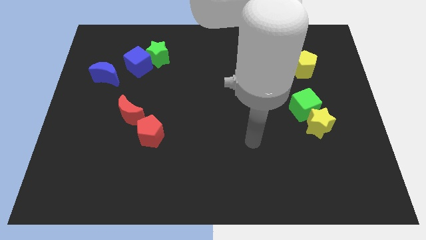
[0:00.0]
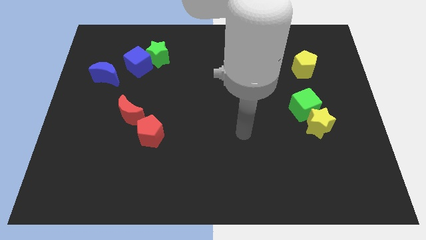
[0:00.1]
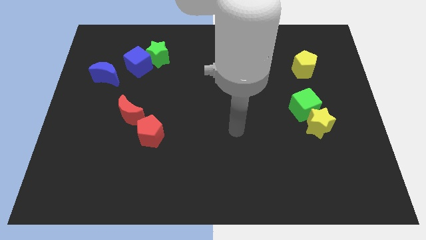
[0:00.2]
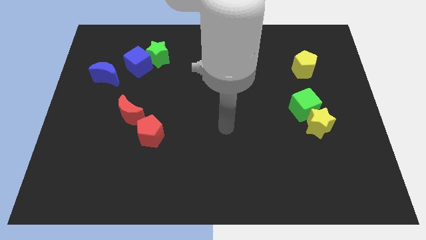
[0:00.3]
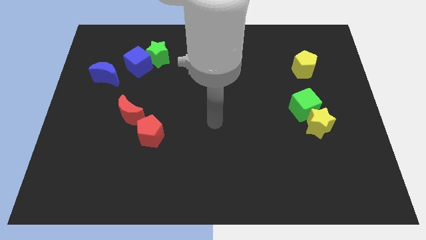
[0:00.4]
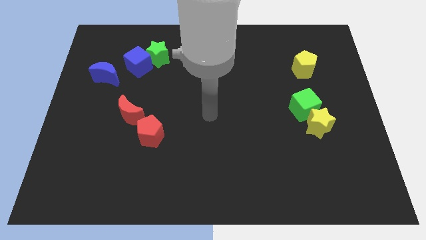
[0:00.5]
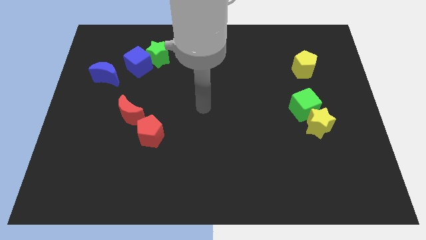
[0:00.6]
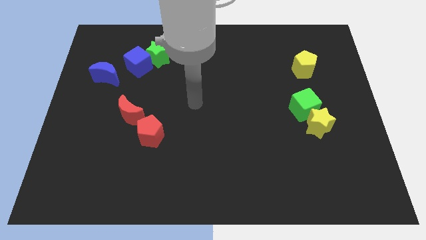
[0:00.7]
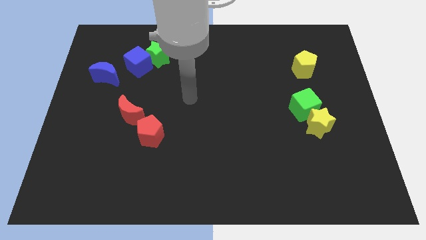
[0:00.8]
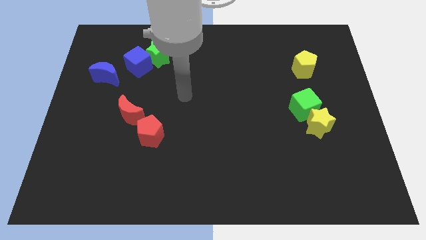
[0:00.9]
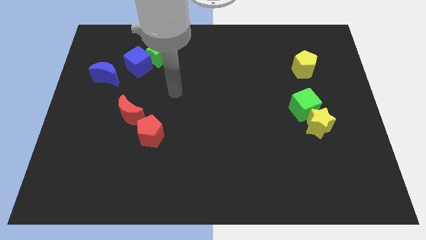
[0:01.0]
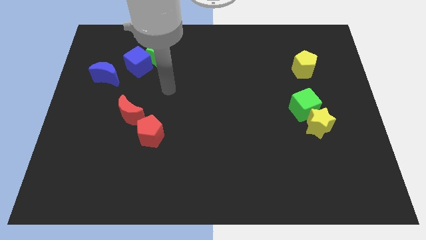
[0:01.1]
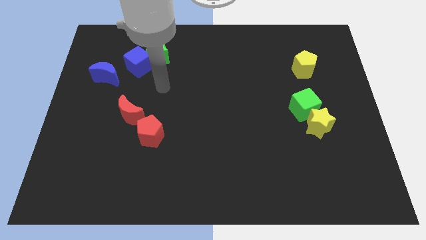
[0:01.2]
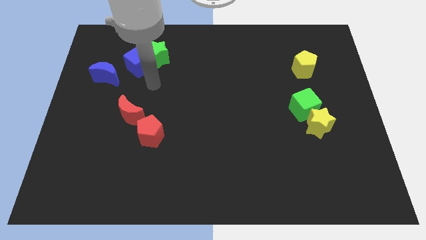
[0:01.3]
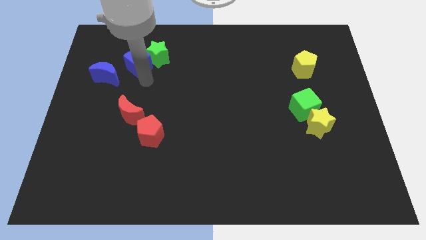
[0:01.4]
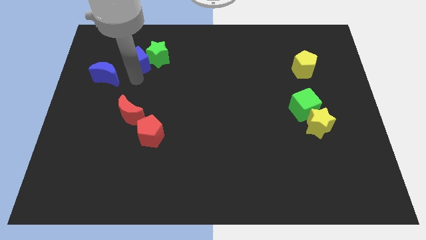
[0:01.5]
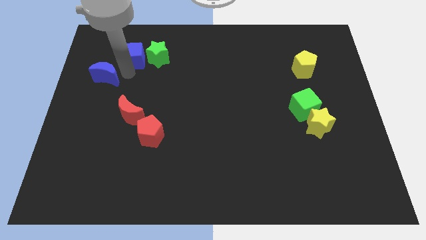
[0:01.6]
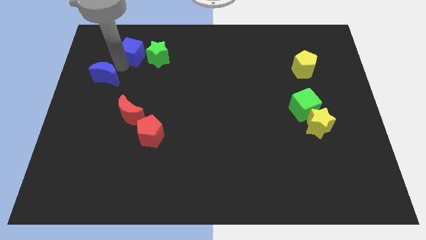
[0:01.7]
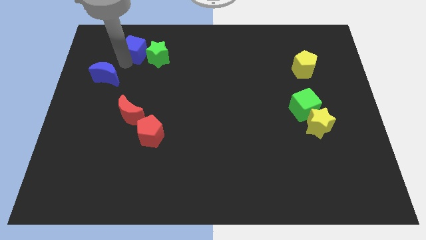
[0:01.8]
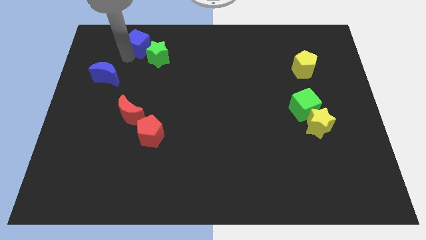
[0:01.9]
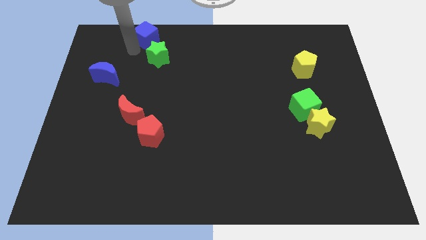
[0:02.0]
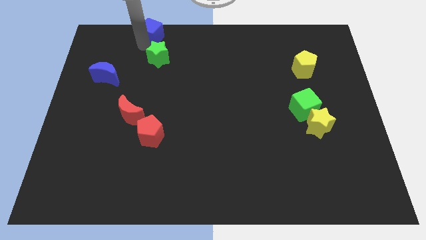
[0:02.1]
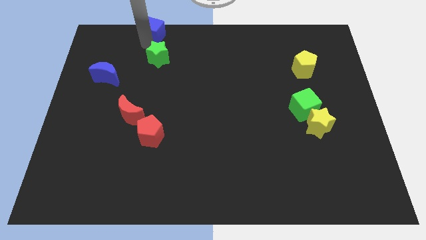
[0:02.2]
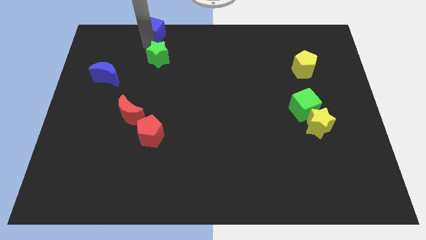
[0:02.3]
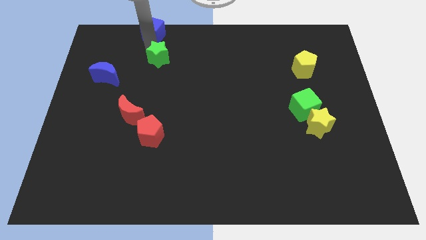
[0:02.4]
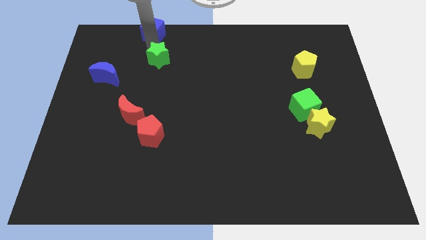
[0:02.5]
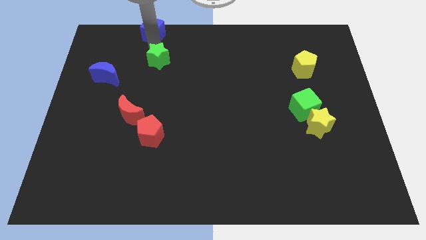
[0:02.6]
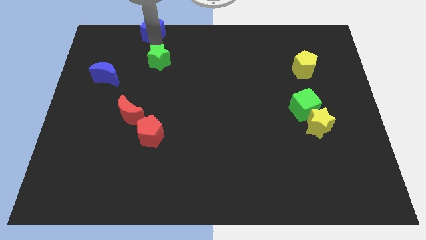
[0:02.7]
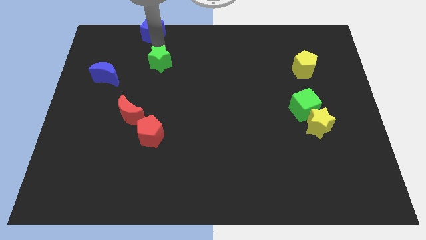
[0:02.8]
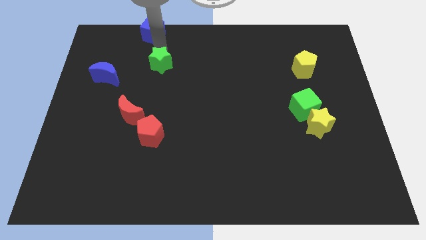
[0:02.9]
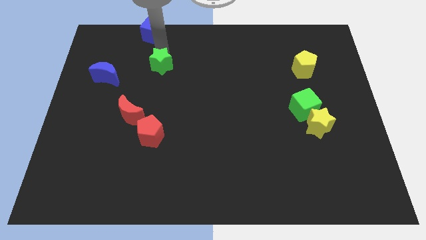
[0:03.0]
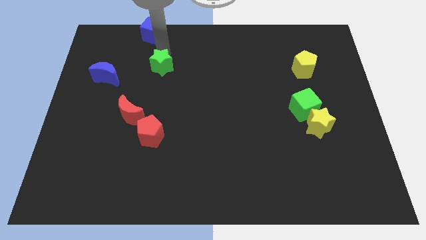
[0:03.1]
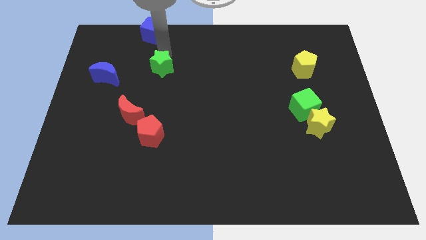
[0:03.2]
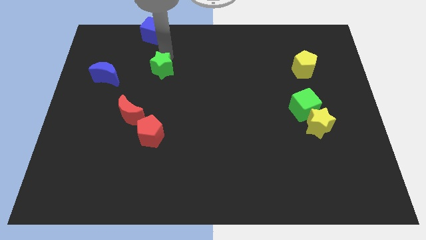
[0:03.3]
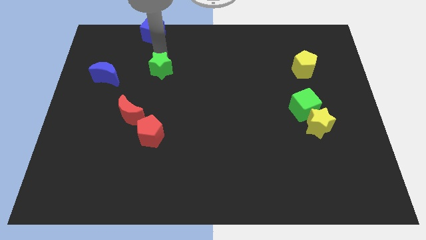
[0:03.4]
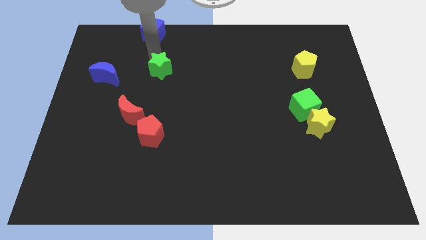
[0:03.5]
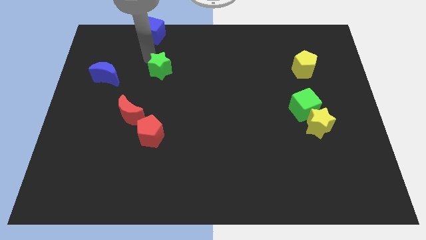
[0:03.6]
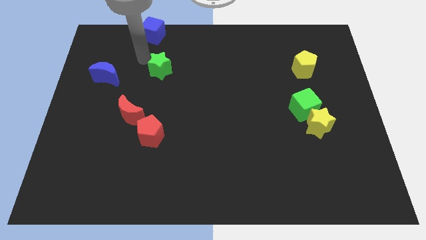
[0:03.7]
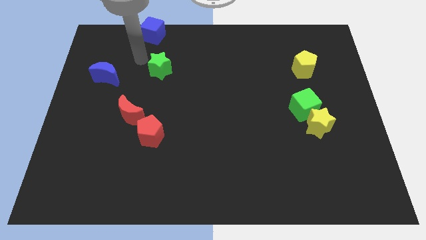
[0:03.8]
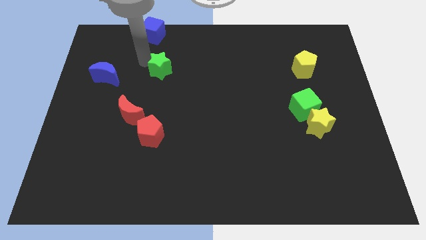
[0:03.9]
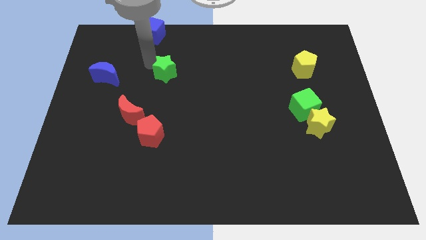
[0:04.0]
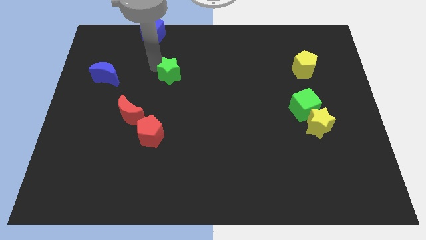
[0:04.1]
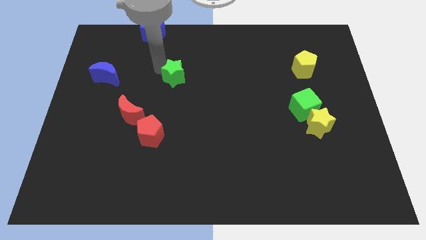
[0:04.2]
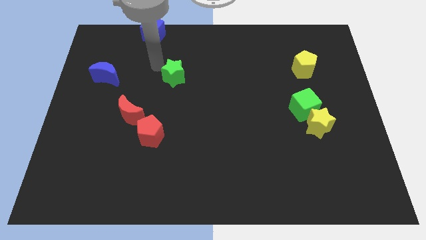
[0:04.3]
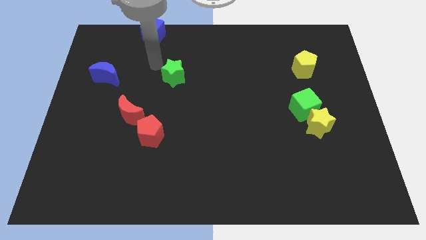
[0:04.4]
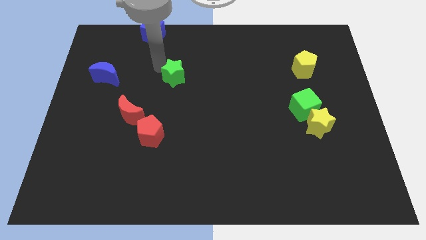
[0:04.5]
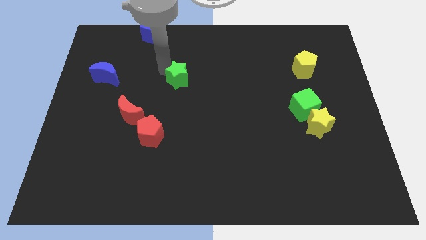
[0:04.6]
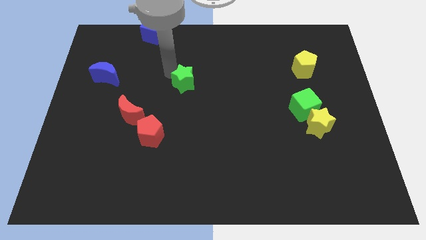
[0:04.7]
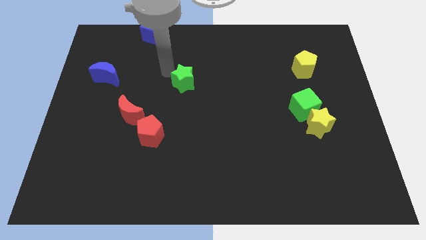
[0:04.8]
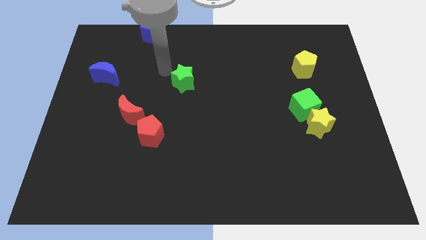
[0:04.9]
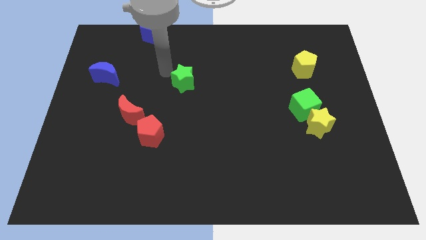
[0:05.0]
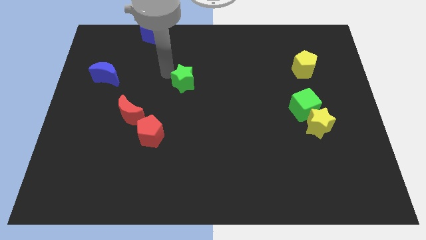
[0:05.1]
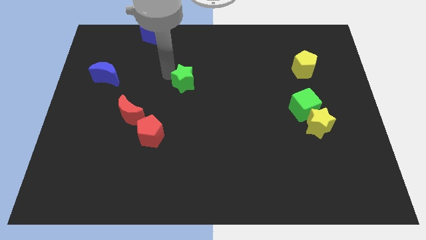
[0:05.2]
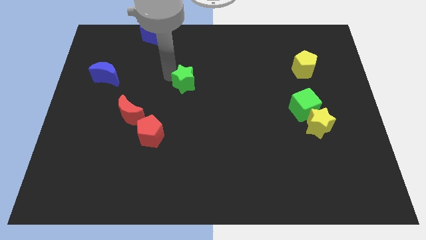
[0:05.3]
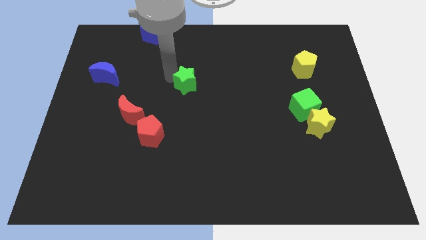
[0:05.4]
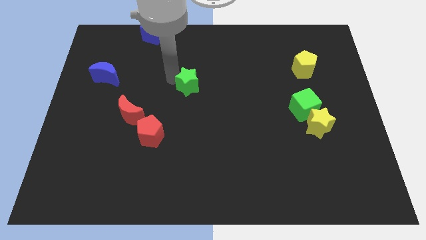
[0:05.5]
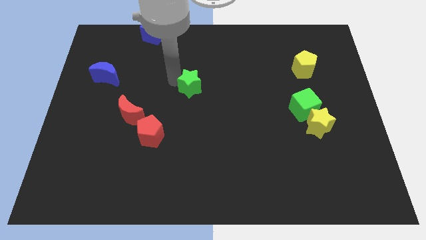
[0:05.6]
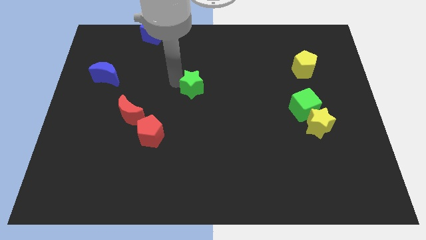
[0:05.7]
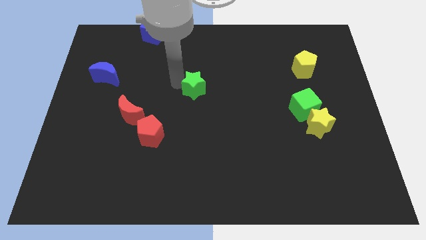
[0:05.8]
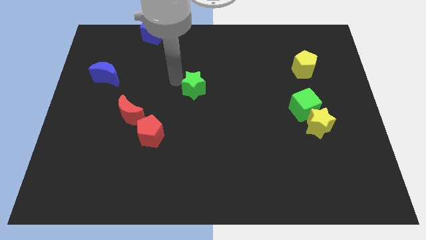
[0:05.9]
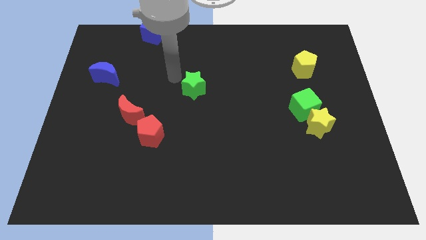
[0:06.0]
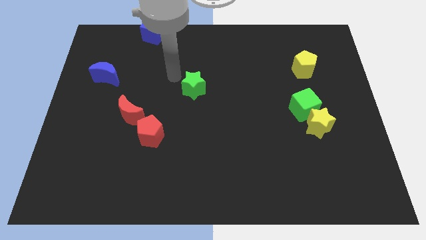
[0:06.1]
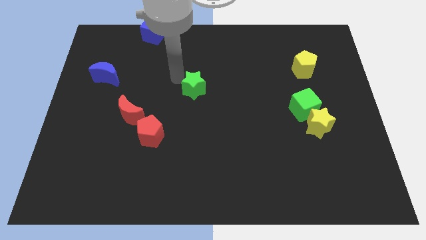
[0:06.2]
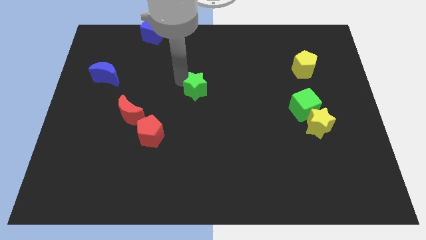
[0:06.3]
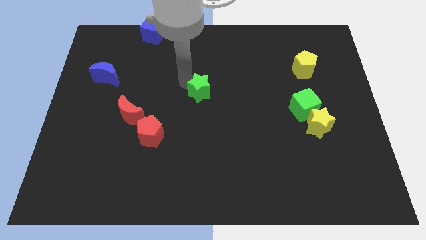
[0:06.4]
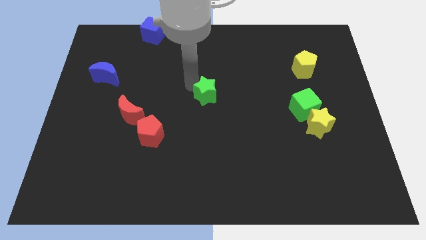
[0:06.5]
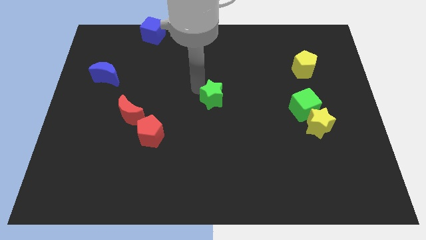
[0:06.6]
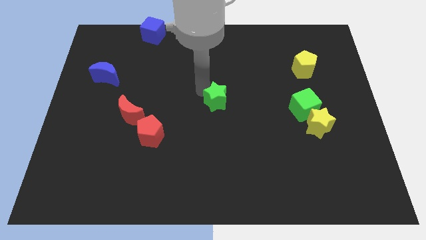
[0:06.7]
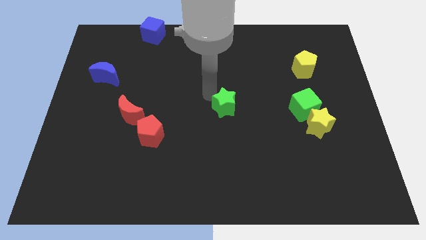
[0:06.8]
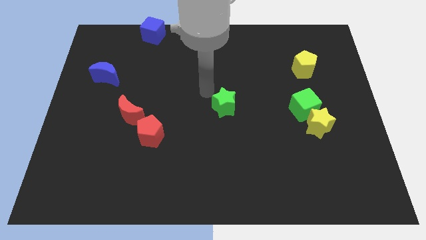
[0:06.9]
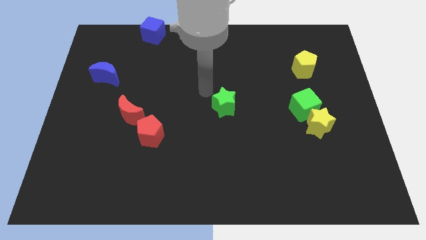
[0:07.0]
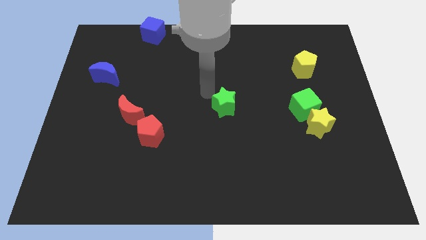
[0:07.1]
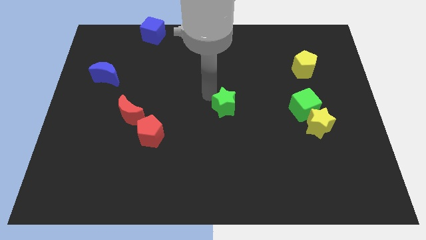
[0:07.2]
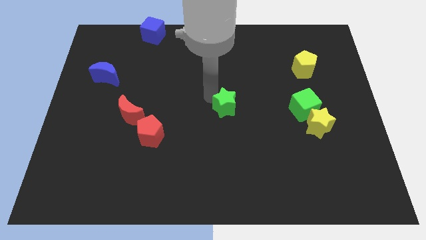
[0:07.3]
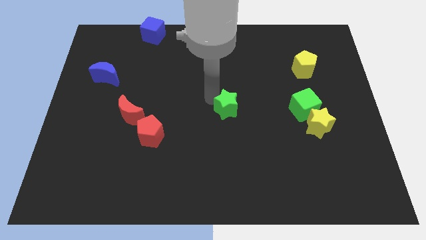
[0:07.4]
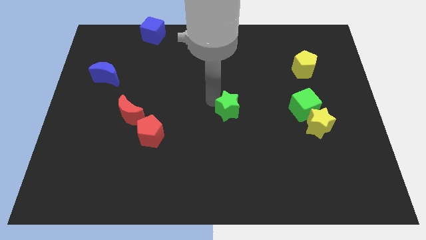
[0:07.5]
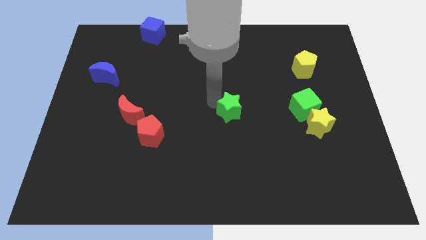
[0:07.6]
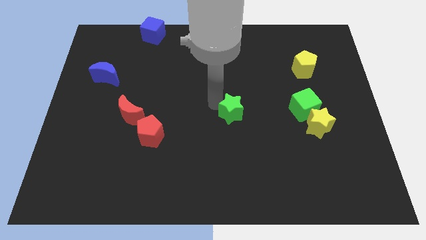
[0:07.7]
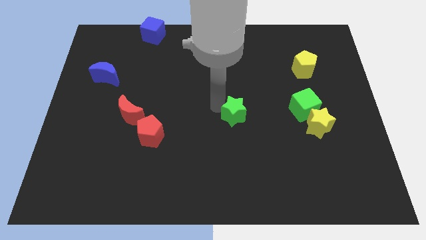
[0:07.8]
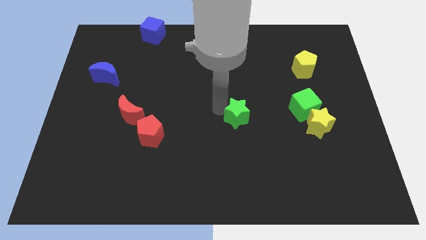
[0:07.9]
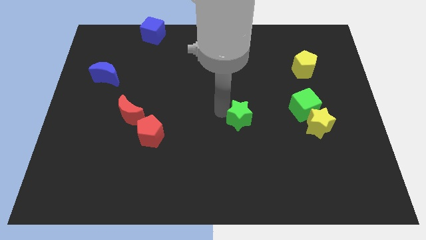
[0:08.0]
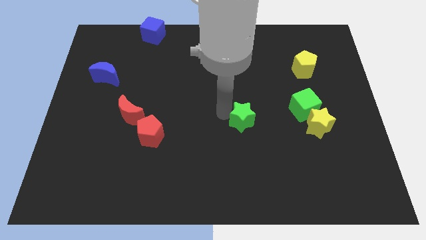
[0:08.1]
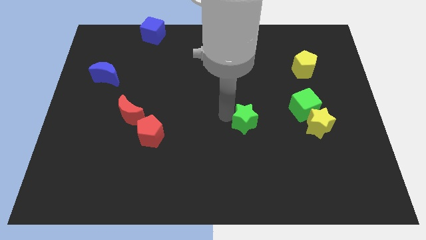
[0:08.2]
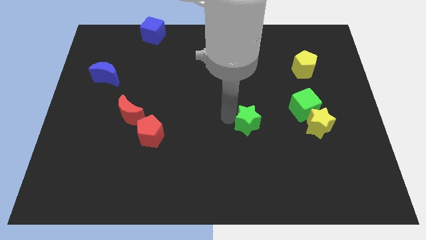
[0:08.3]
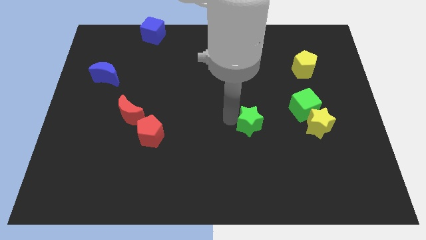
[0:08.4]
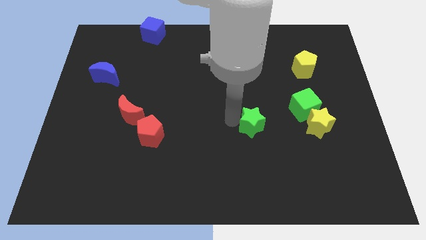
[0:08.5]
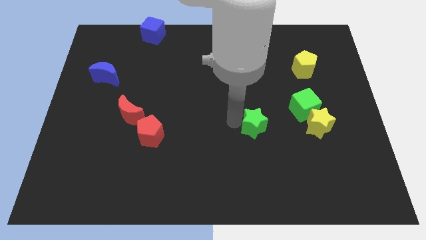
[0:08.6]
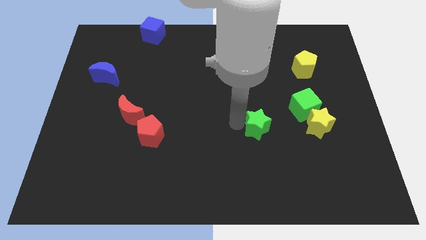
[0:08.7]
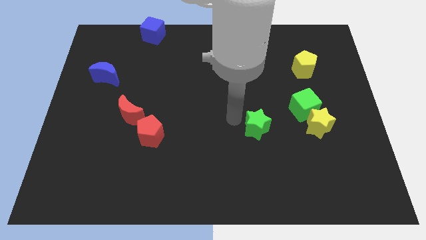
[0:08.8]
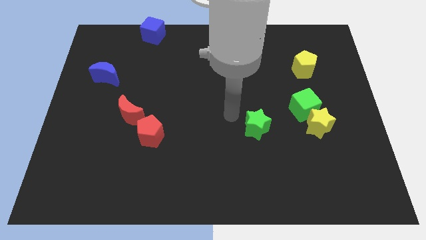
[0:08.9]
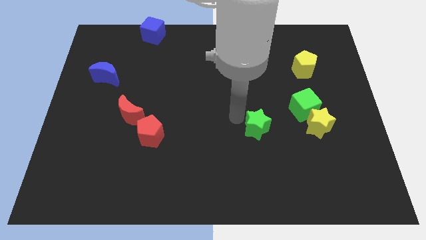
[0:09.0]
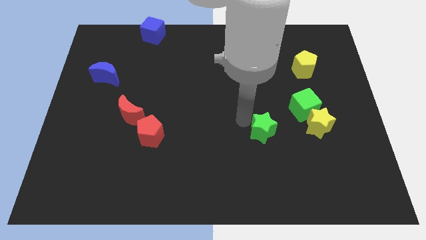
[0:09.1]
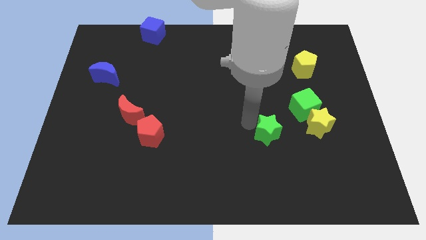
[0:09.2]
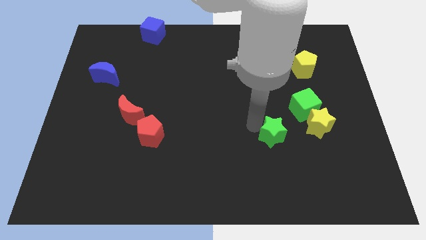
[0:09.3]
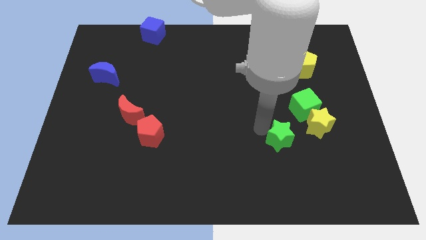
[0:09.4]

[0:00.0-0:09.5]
move the green star to the bottom left side of the yellow star
